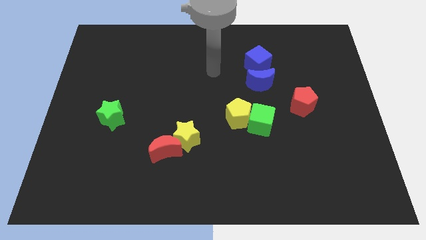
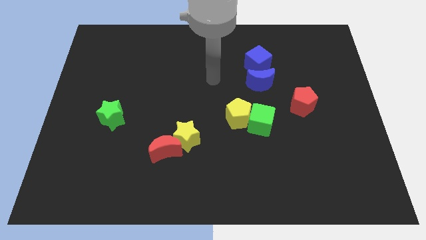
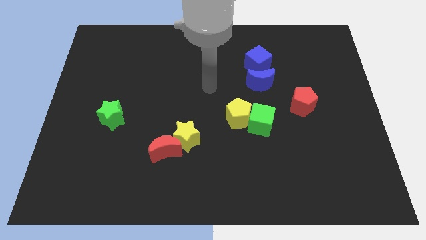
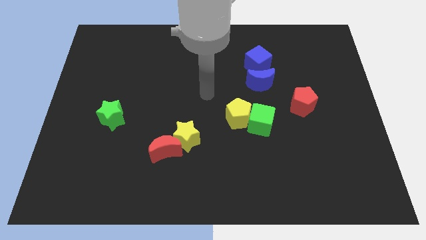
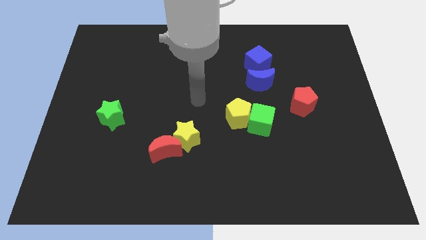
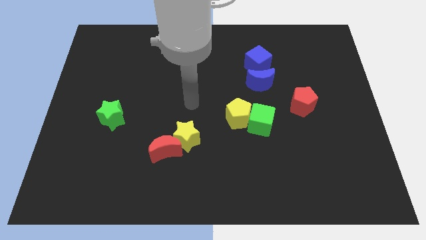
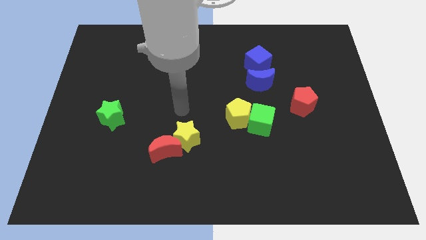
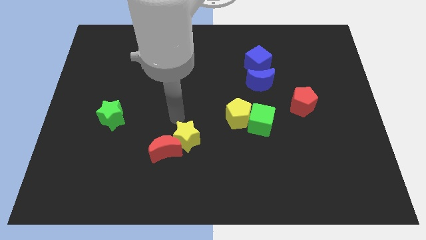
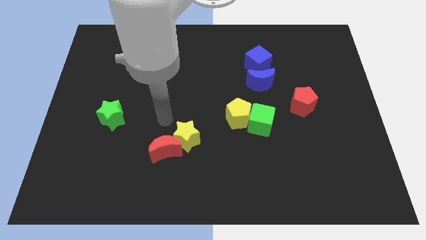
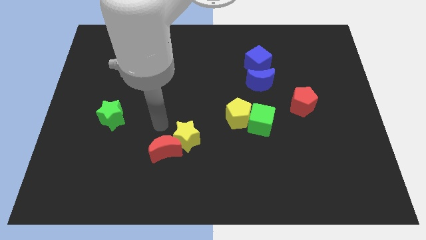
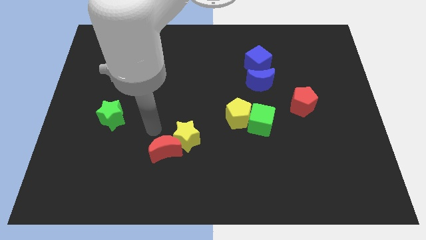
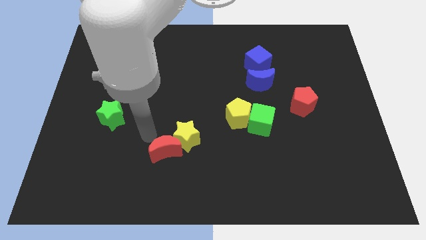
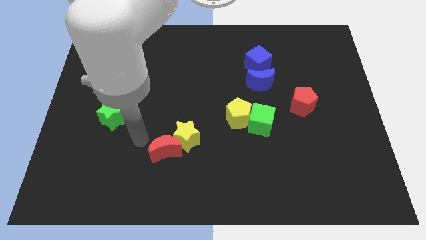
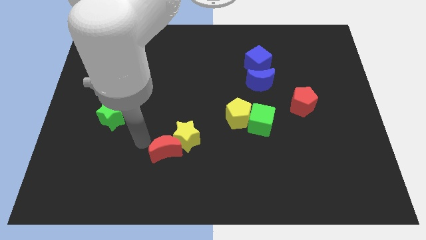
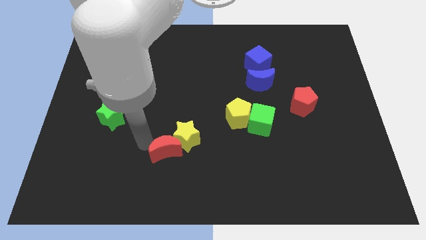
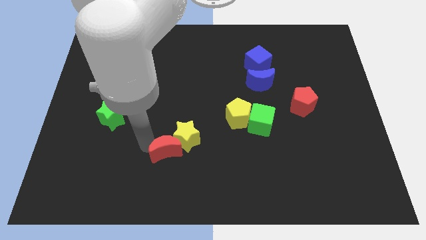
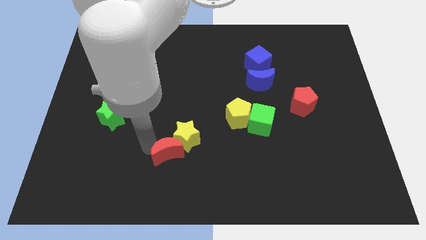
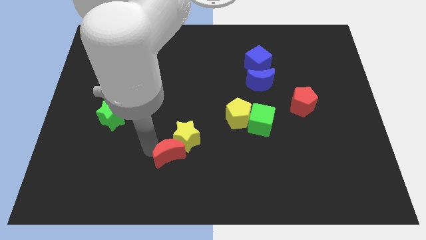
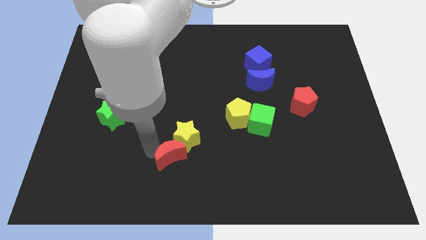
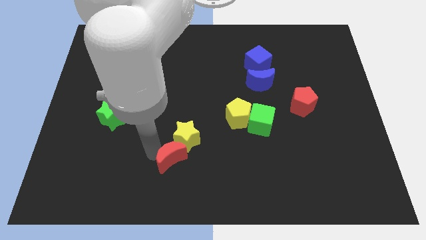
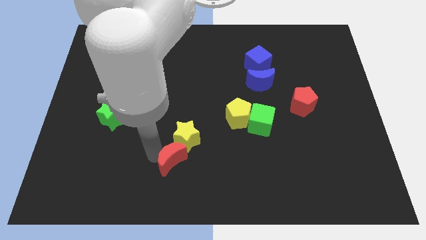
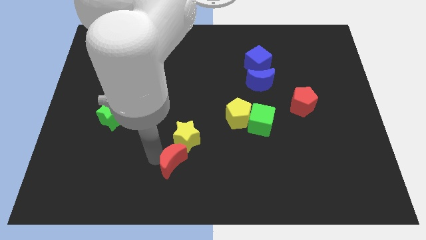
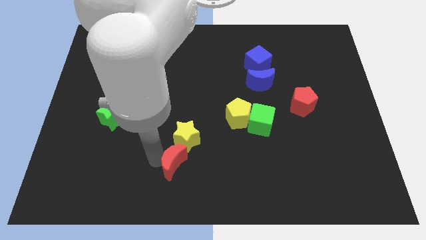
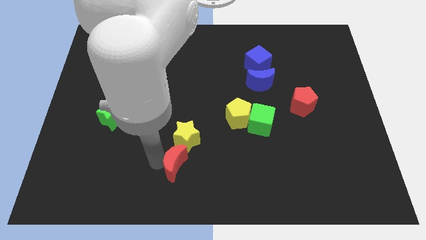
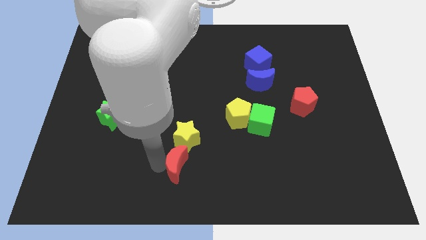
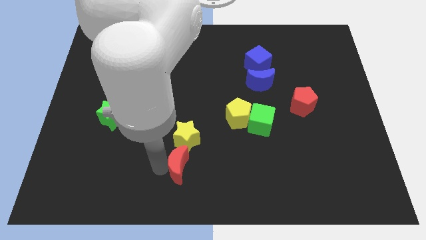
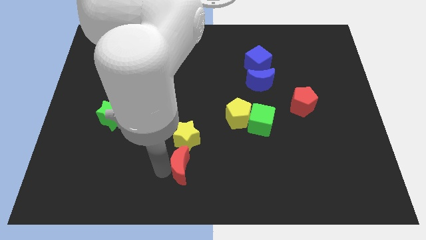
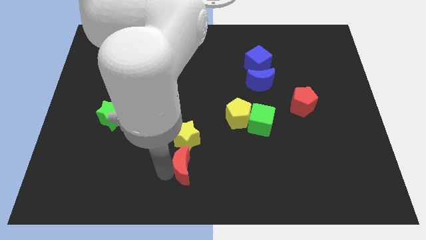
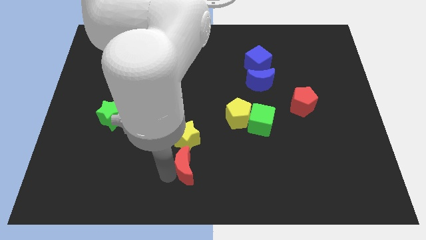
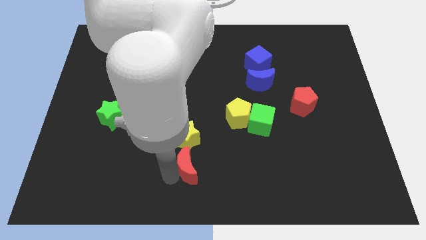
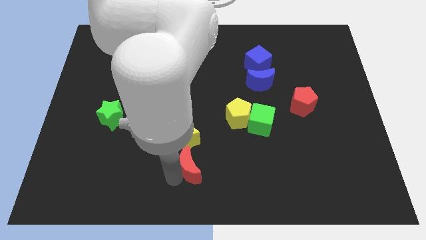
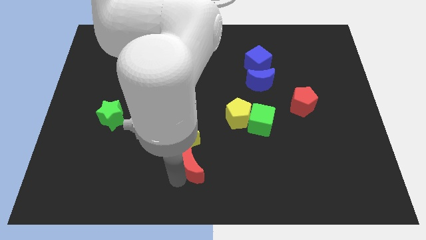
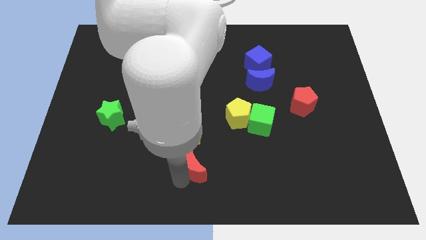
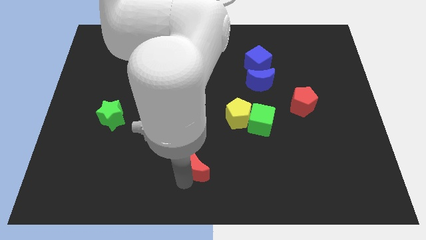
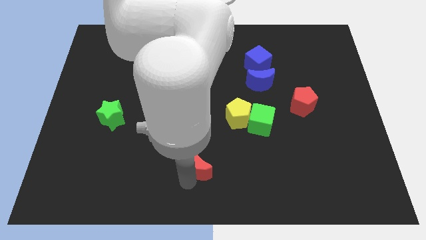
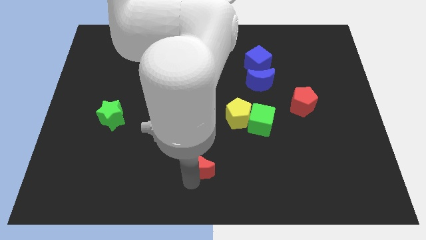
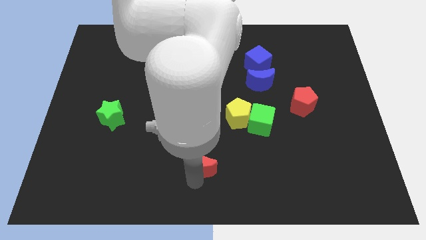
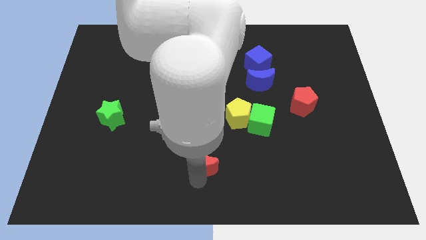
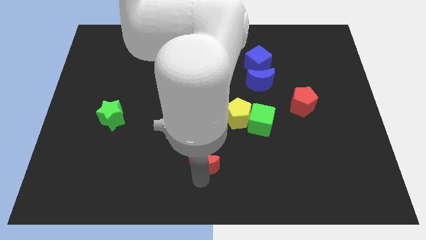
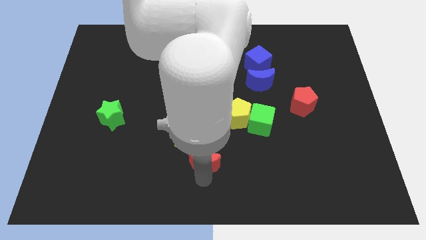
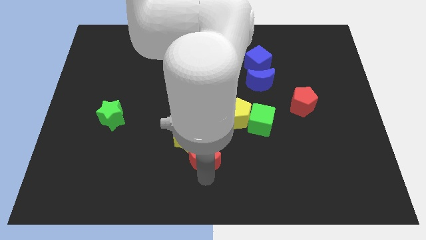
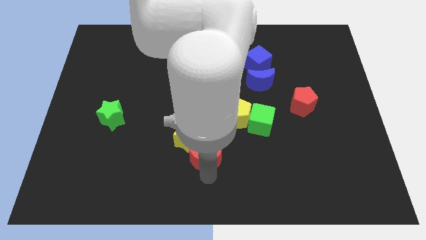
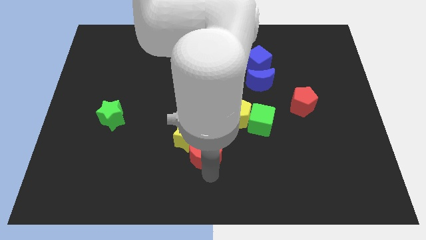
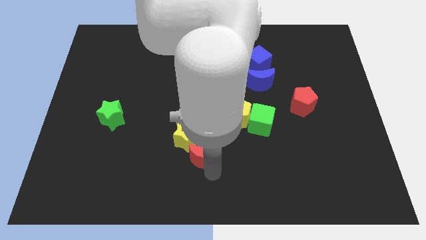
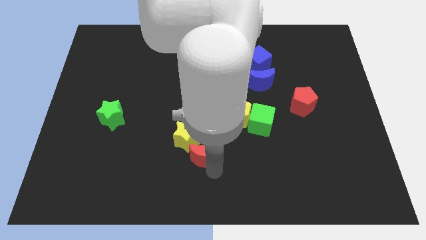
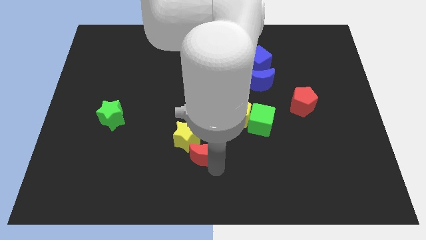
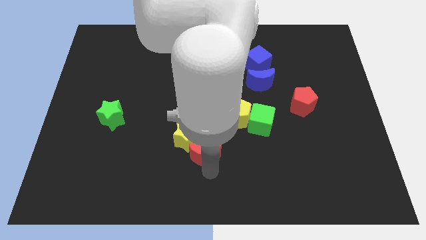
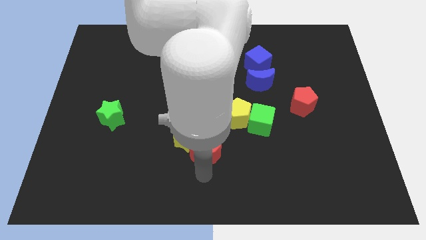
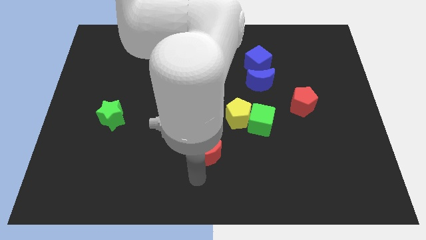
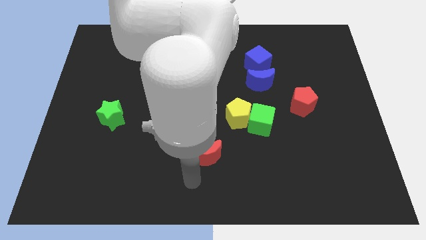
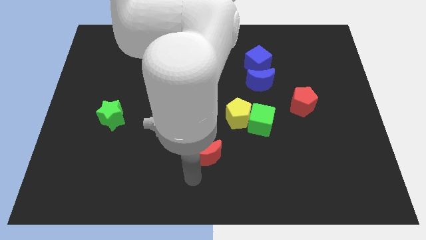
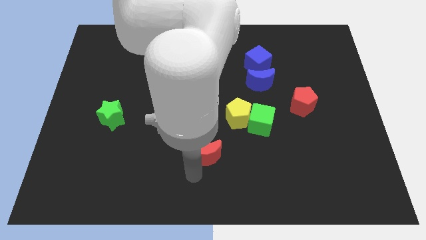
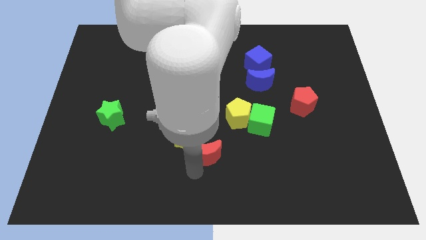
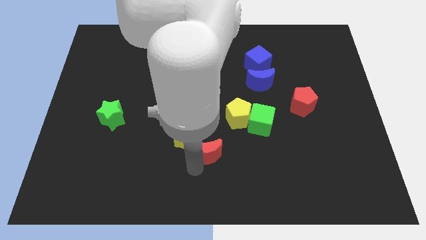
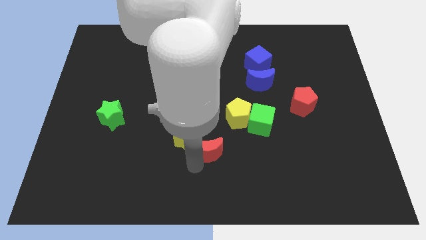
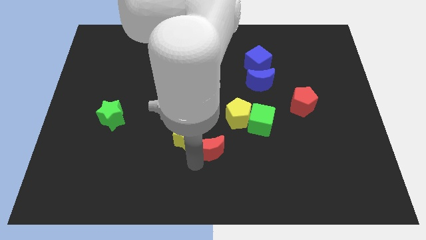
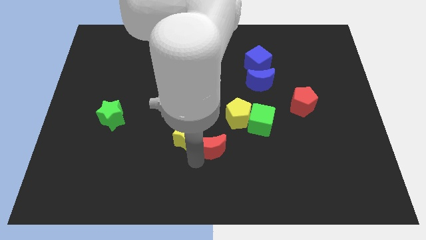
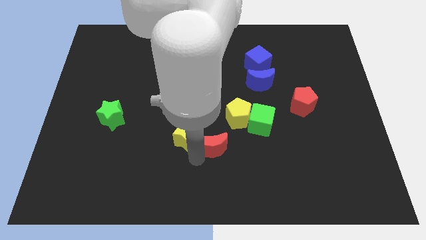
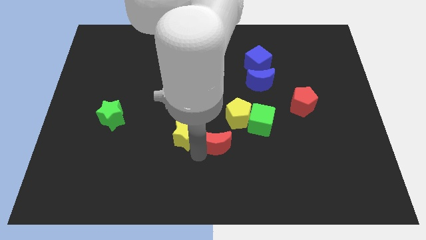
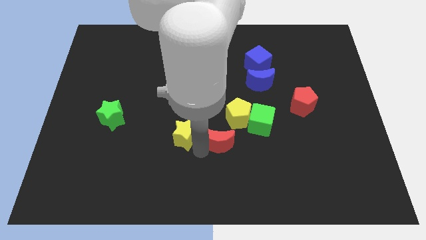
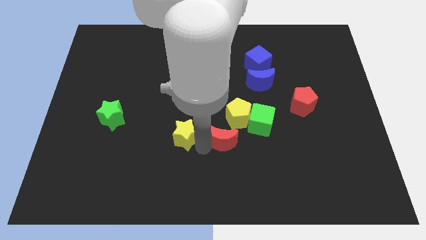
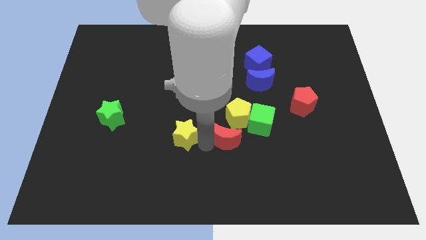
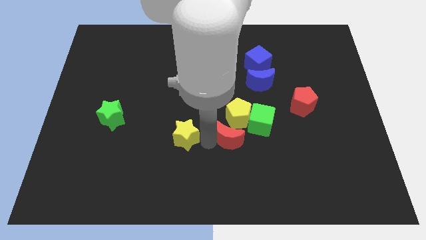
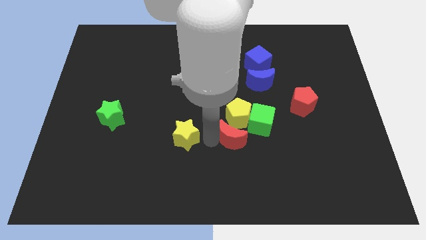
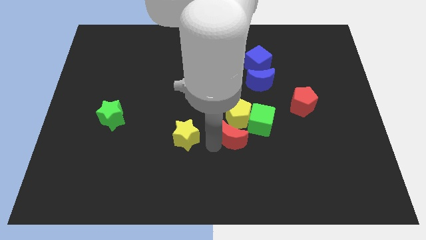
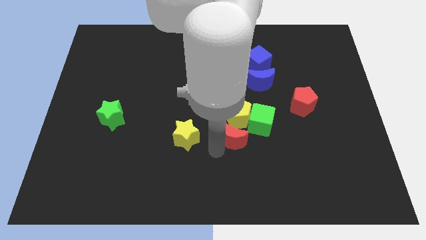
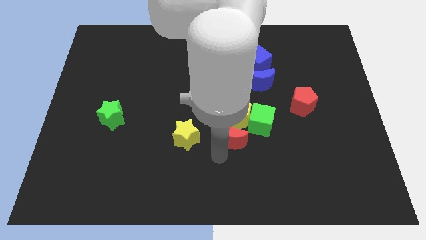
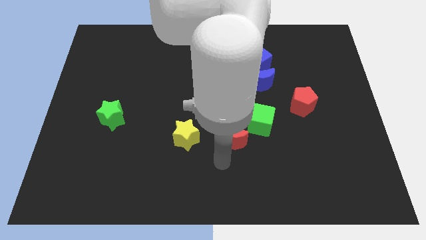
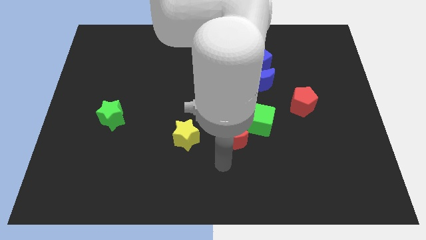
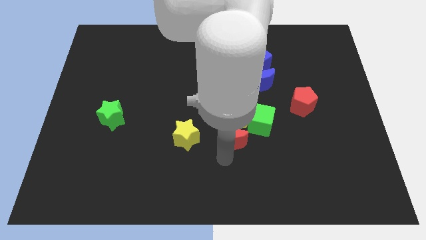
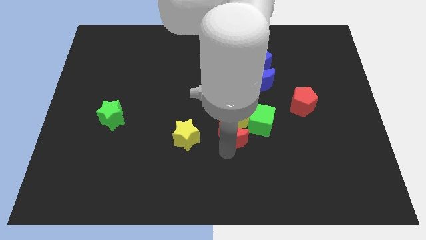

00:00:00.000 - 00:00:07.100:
push the red moon close to the yellow pentagon
